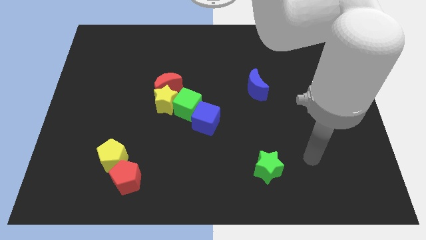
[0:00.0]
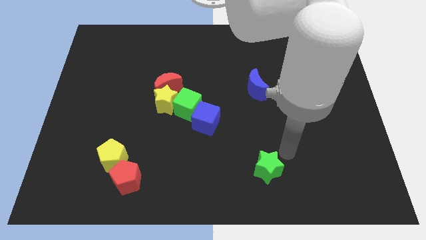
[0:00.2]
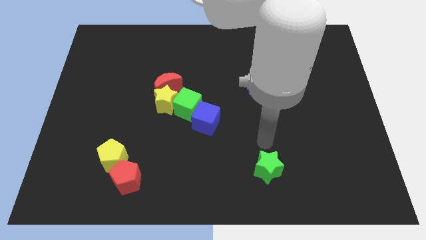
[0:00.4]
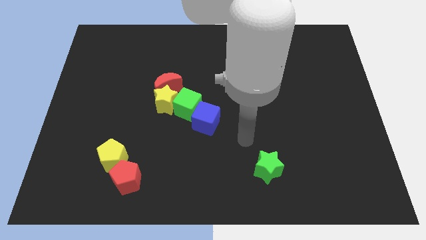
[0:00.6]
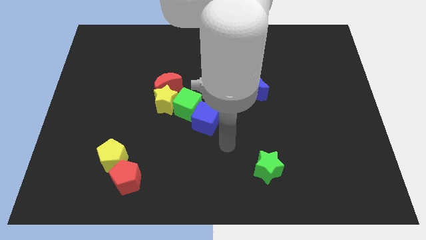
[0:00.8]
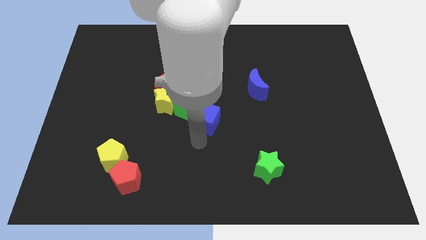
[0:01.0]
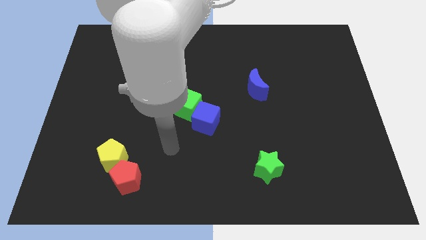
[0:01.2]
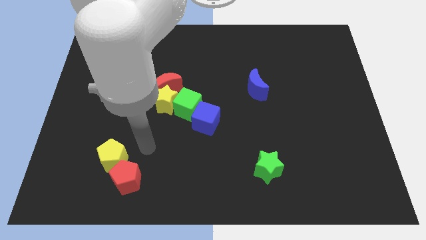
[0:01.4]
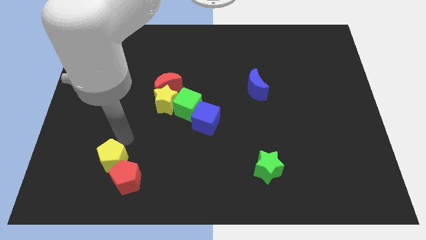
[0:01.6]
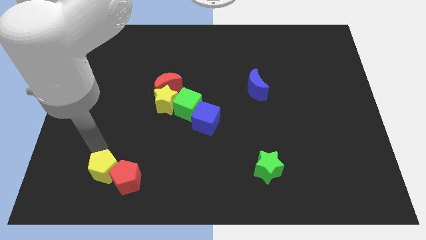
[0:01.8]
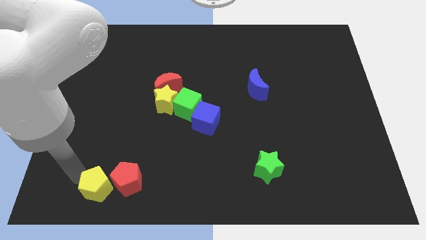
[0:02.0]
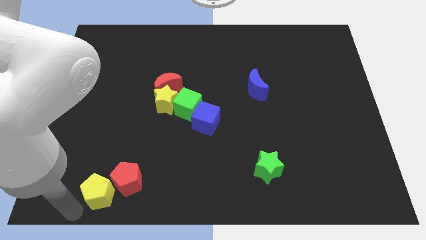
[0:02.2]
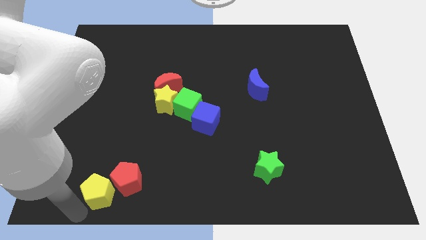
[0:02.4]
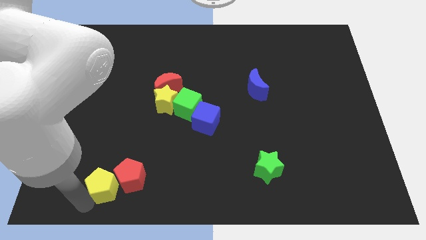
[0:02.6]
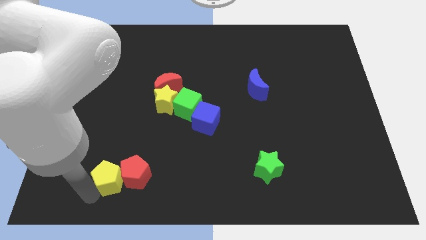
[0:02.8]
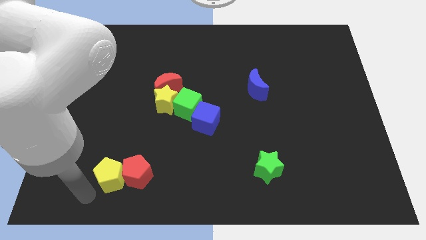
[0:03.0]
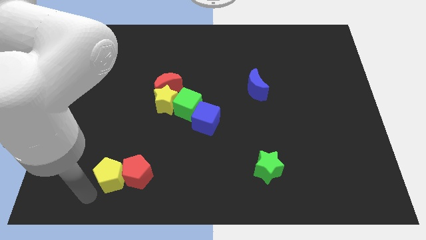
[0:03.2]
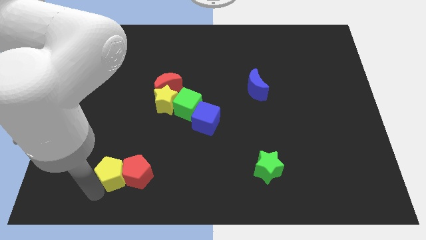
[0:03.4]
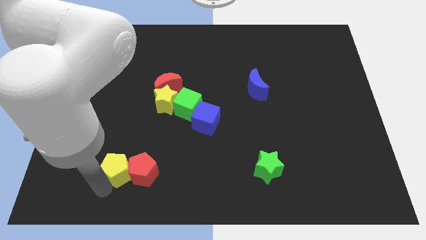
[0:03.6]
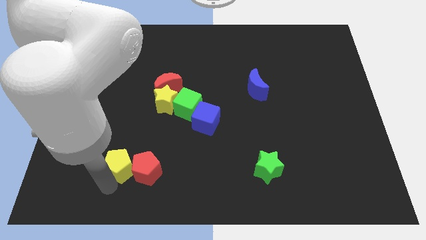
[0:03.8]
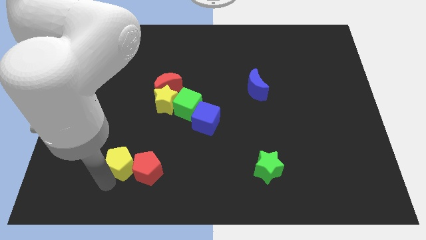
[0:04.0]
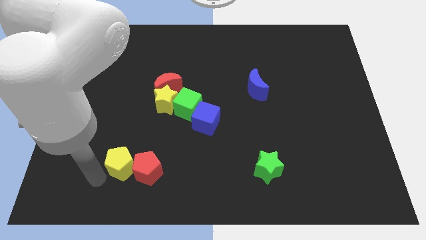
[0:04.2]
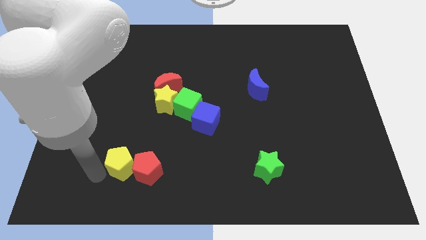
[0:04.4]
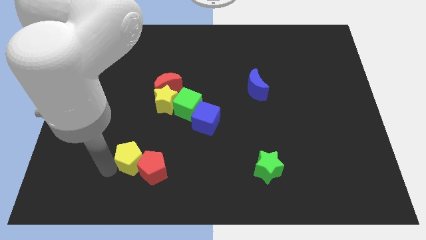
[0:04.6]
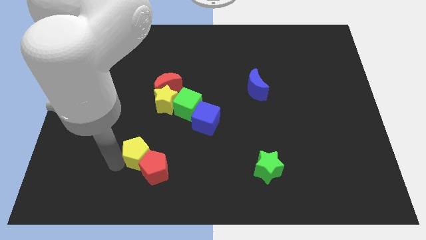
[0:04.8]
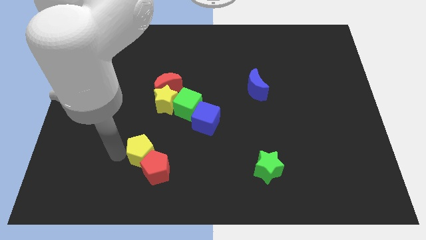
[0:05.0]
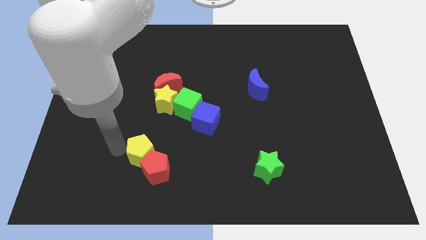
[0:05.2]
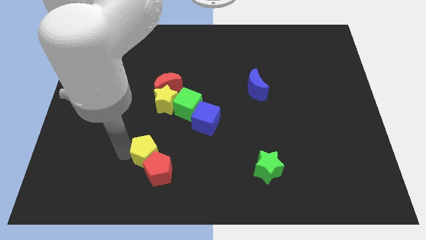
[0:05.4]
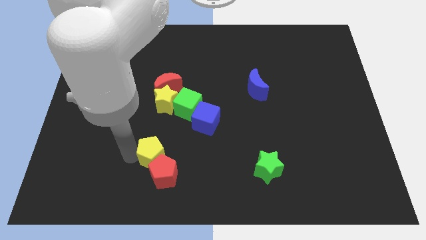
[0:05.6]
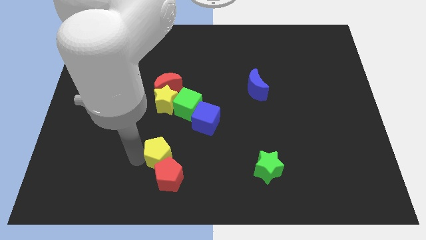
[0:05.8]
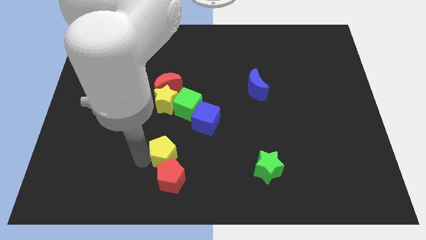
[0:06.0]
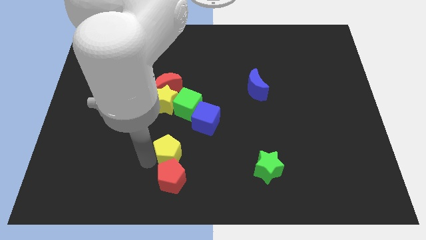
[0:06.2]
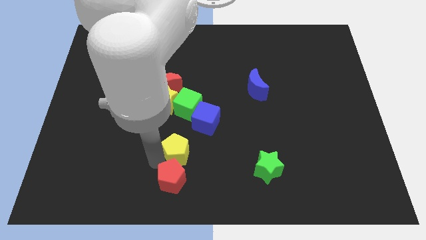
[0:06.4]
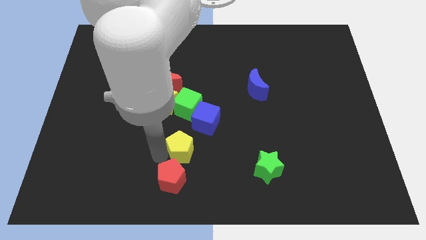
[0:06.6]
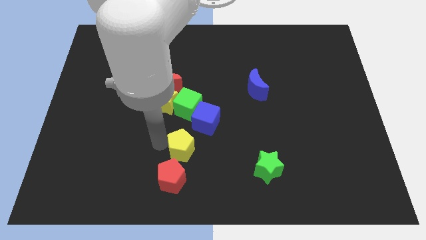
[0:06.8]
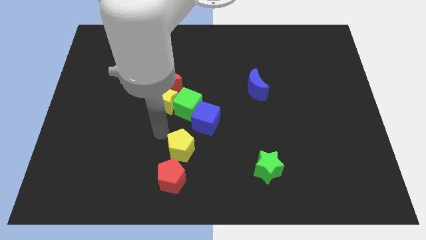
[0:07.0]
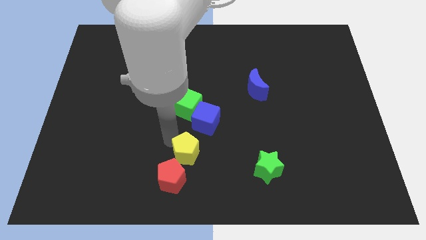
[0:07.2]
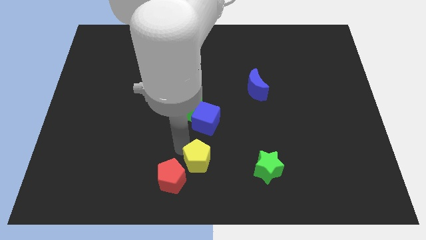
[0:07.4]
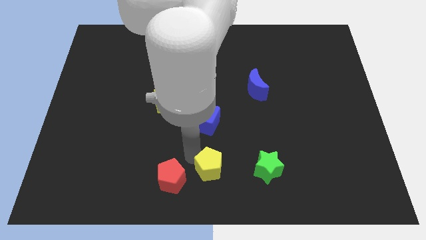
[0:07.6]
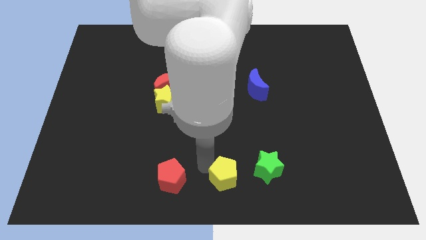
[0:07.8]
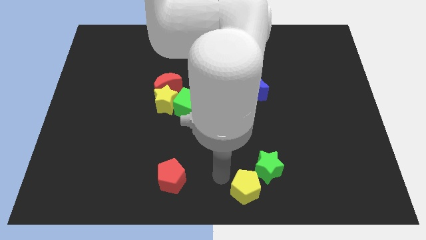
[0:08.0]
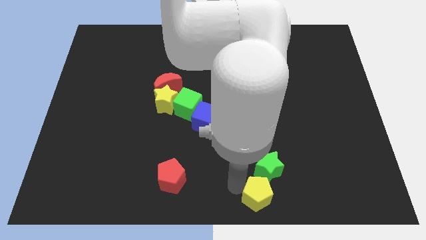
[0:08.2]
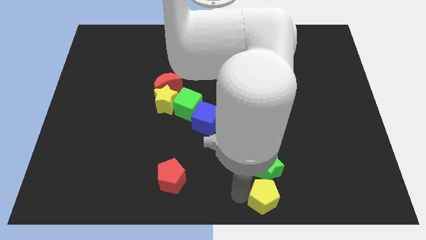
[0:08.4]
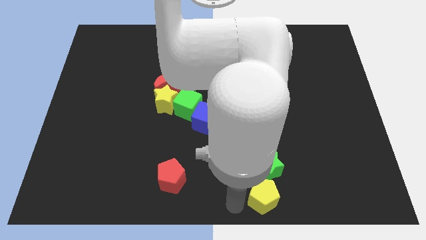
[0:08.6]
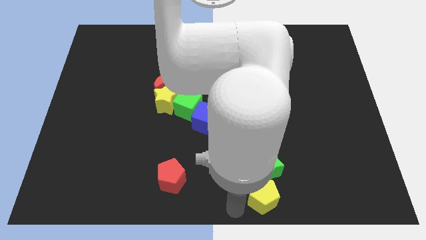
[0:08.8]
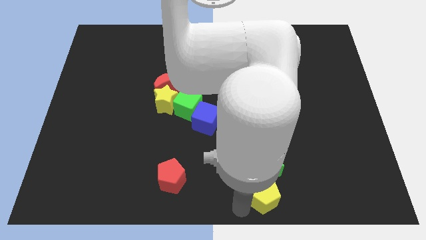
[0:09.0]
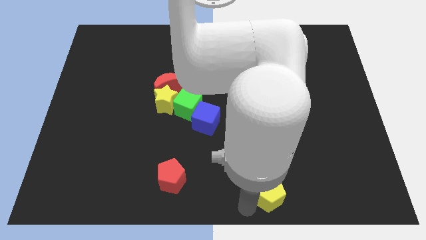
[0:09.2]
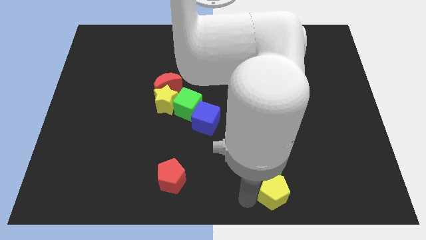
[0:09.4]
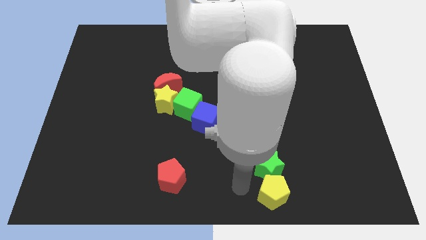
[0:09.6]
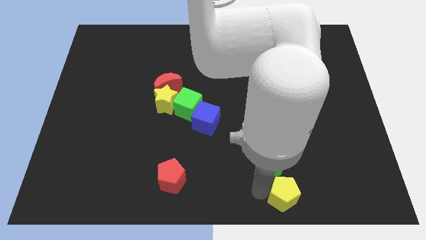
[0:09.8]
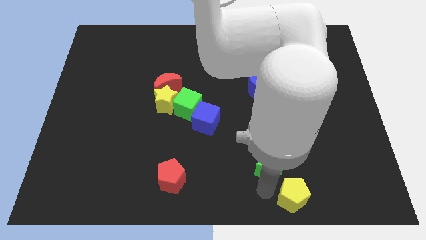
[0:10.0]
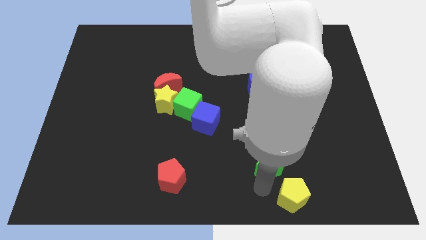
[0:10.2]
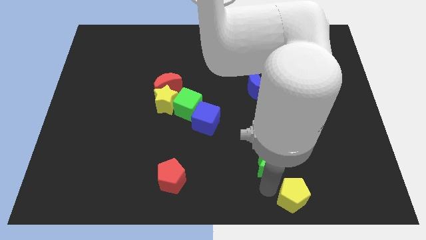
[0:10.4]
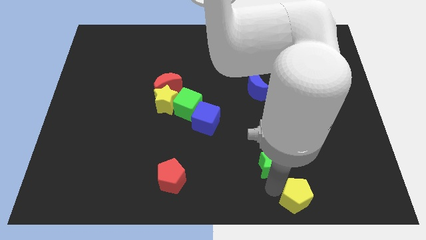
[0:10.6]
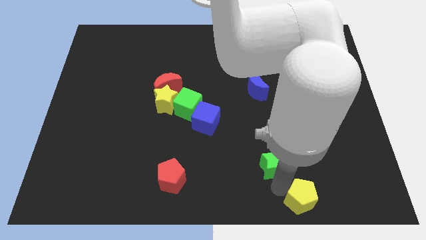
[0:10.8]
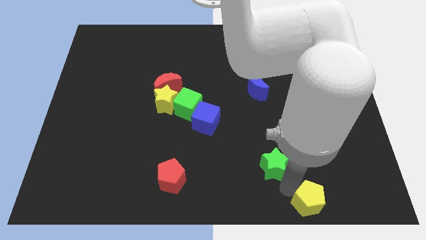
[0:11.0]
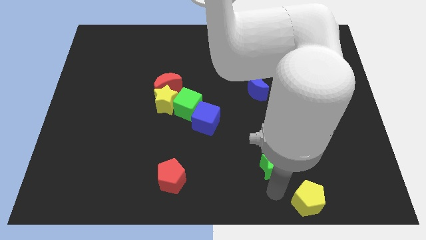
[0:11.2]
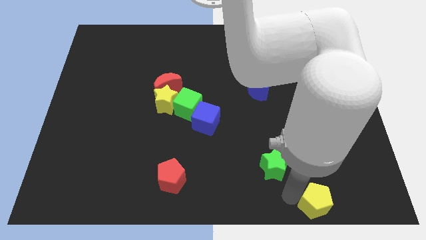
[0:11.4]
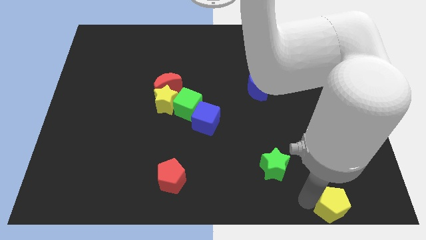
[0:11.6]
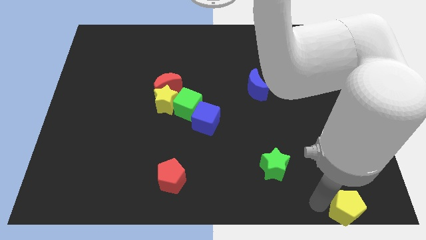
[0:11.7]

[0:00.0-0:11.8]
put the yellow pentagon to the bottom right

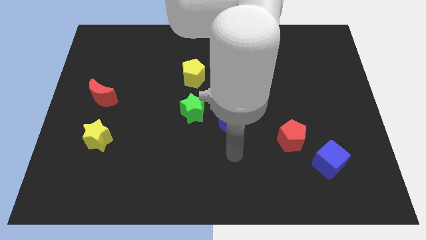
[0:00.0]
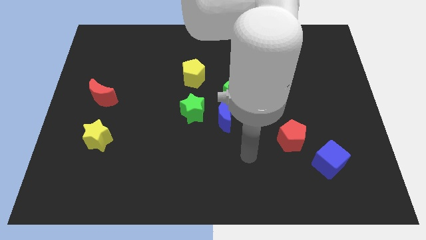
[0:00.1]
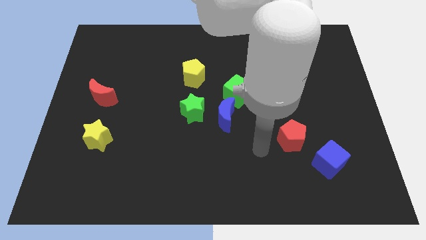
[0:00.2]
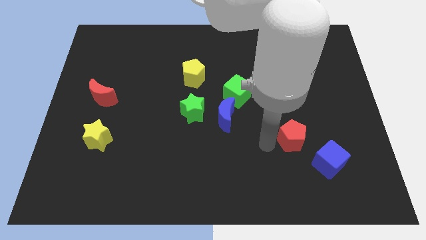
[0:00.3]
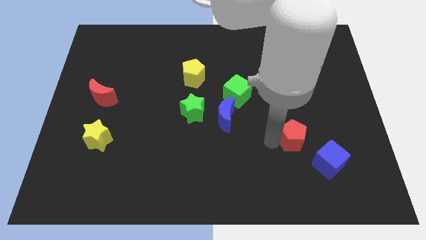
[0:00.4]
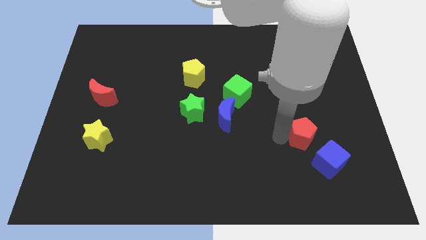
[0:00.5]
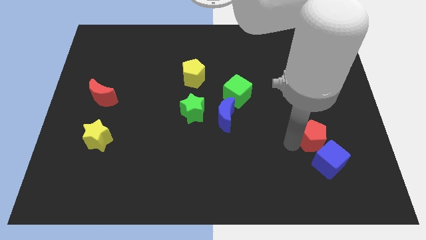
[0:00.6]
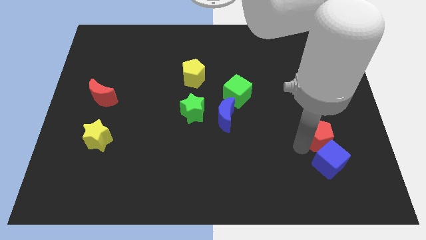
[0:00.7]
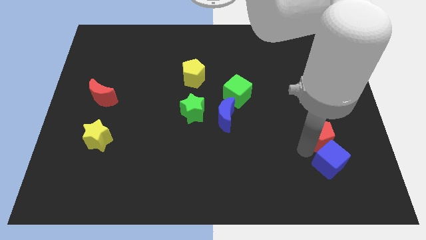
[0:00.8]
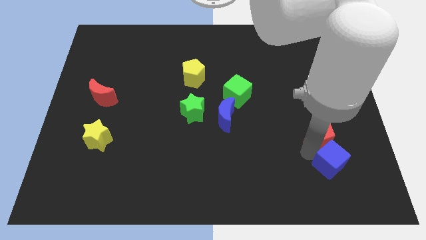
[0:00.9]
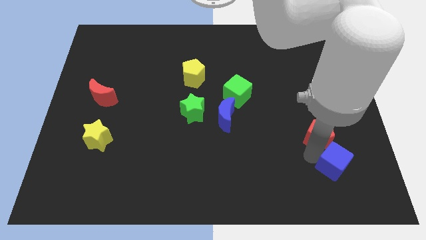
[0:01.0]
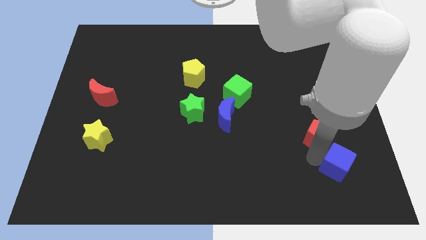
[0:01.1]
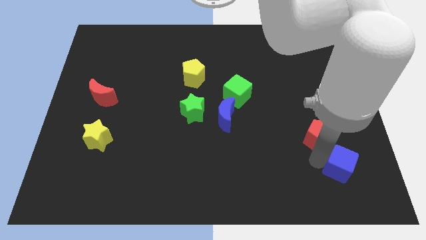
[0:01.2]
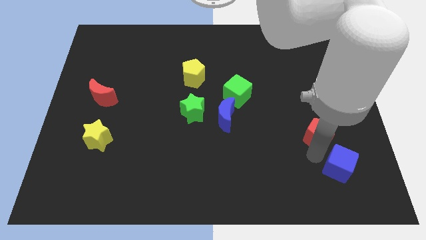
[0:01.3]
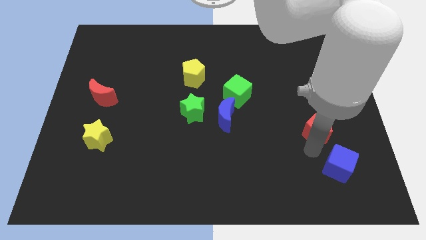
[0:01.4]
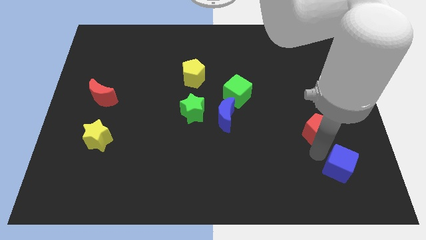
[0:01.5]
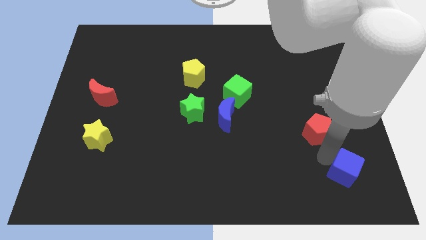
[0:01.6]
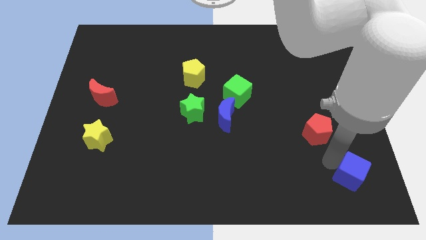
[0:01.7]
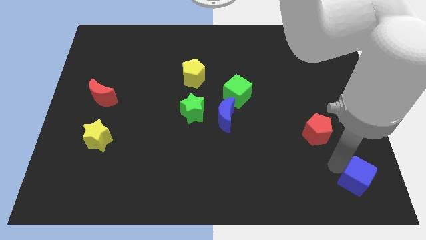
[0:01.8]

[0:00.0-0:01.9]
push the blue cube to the bottom right corner
